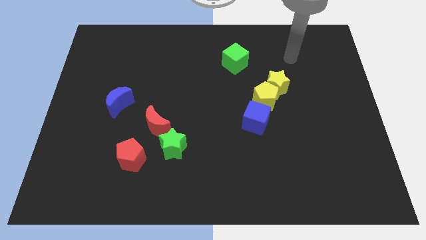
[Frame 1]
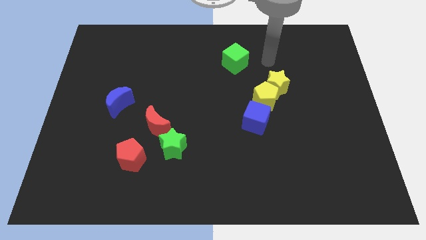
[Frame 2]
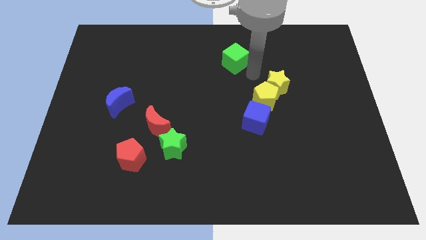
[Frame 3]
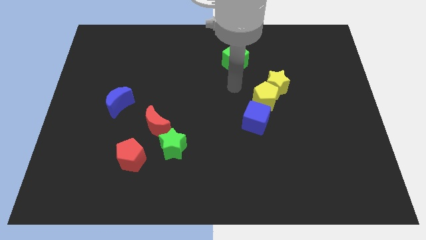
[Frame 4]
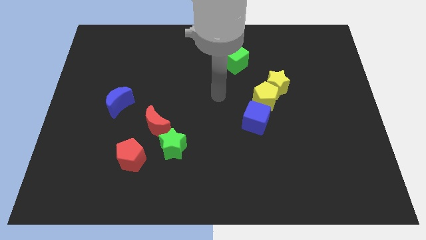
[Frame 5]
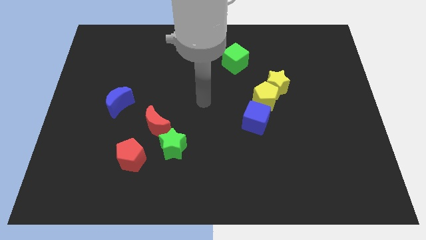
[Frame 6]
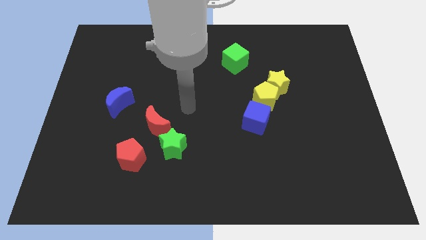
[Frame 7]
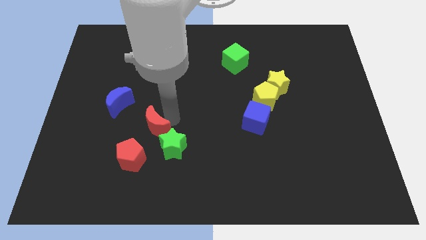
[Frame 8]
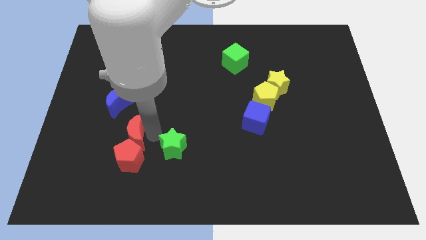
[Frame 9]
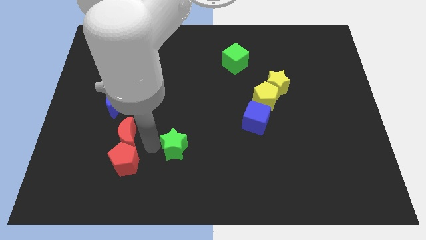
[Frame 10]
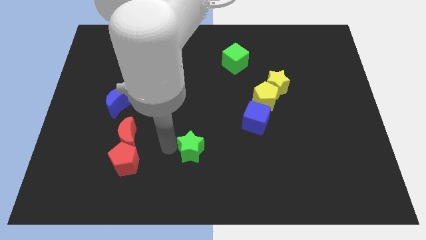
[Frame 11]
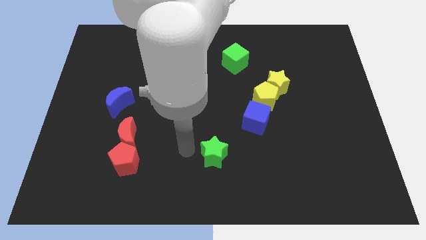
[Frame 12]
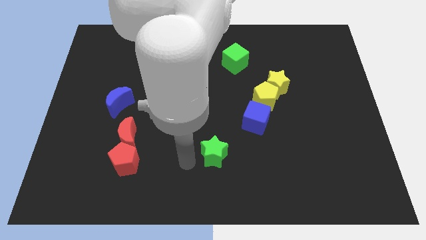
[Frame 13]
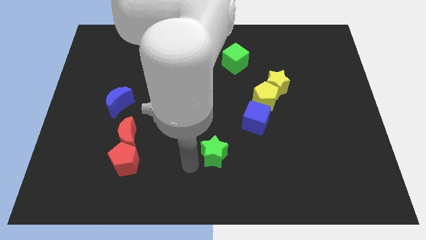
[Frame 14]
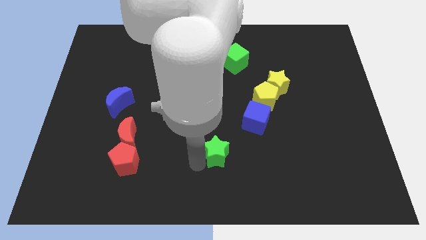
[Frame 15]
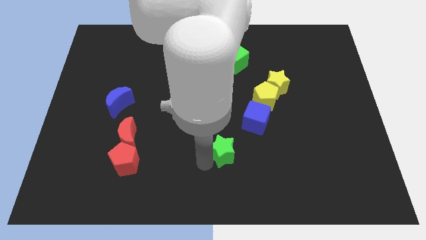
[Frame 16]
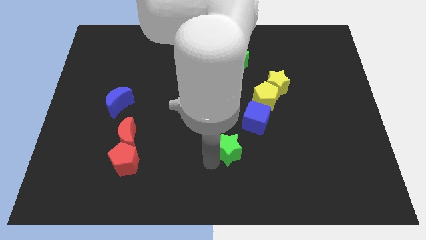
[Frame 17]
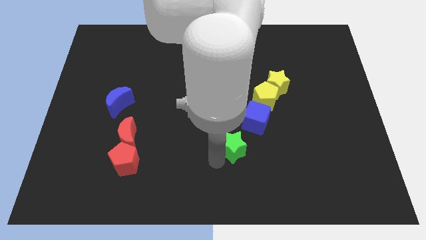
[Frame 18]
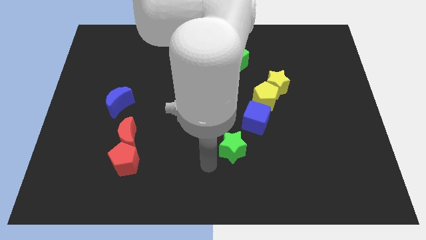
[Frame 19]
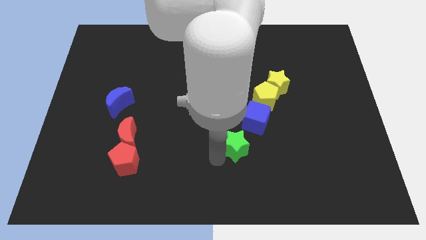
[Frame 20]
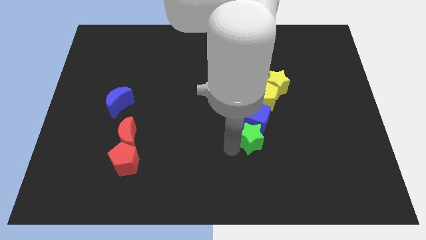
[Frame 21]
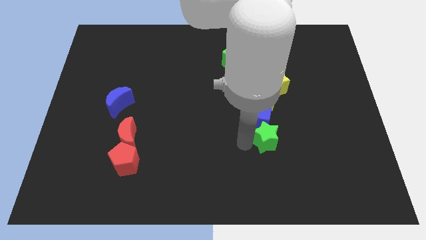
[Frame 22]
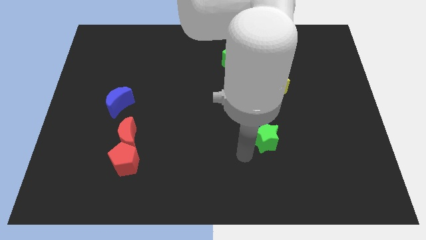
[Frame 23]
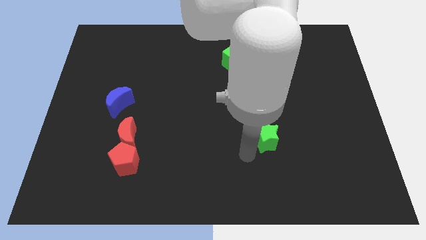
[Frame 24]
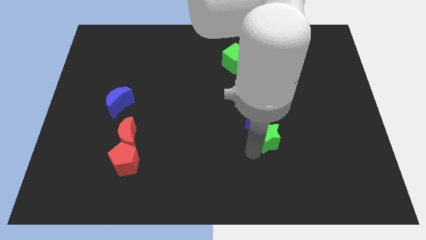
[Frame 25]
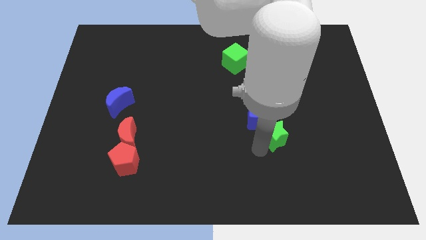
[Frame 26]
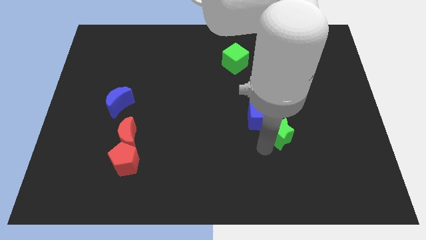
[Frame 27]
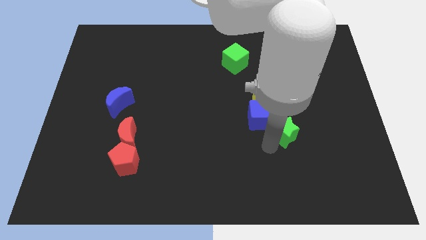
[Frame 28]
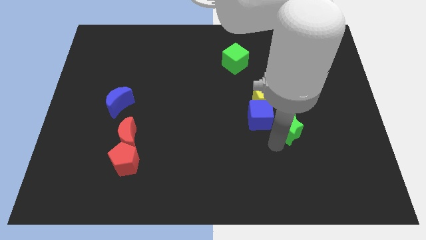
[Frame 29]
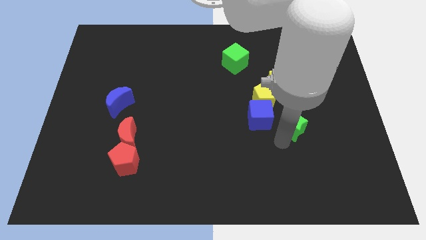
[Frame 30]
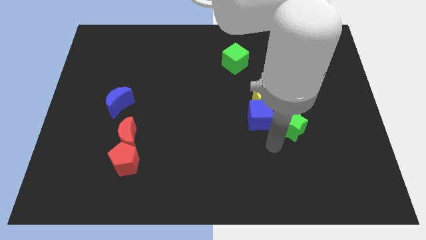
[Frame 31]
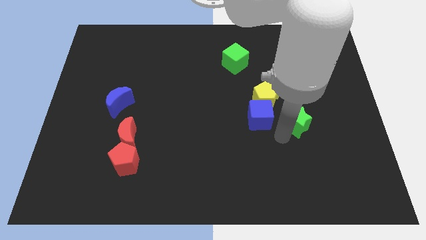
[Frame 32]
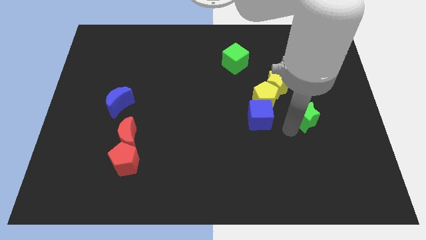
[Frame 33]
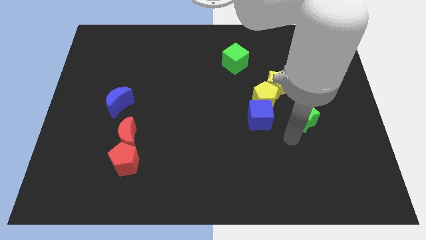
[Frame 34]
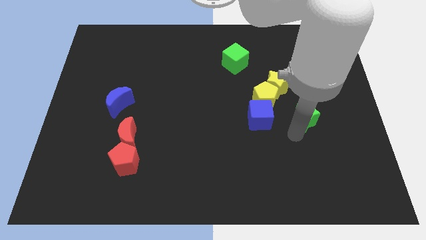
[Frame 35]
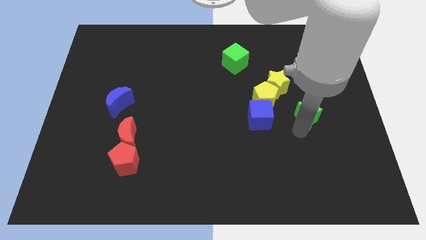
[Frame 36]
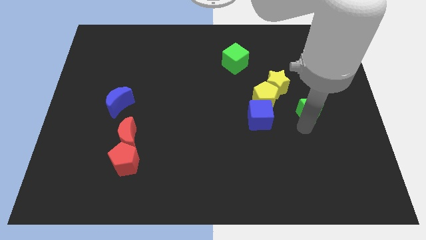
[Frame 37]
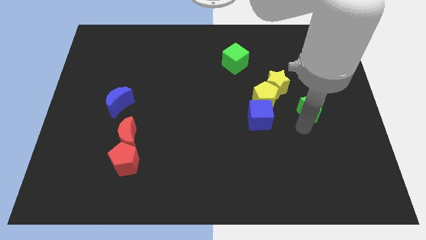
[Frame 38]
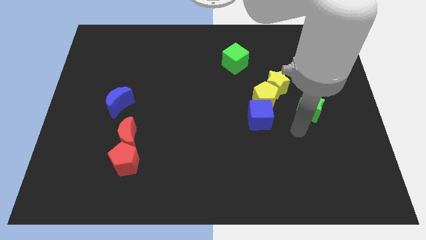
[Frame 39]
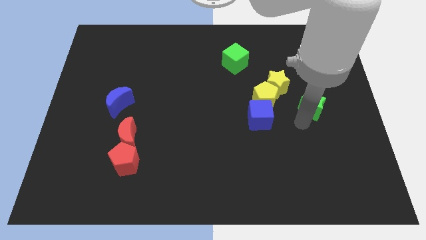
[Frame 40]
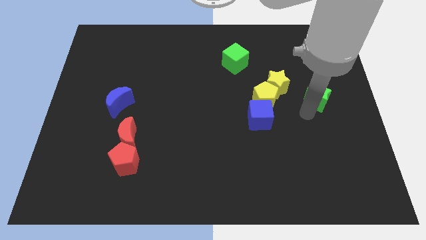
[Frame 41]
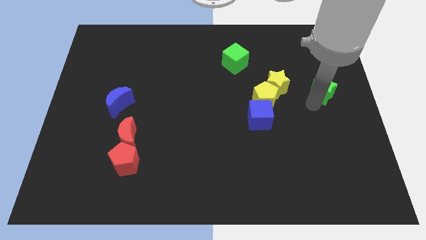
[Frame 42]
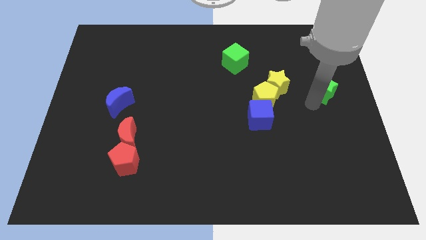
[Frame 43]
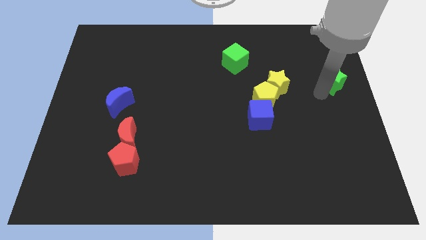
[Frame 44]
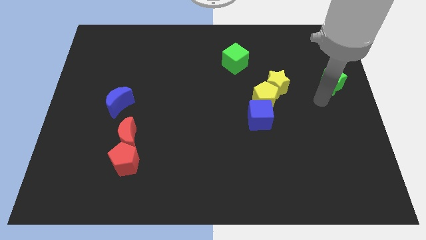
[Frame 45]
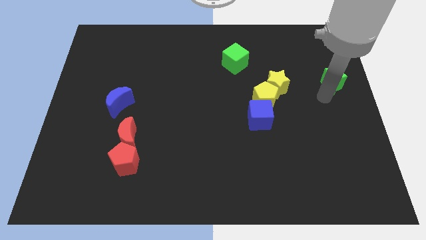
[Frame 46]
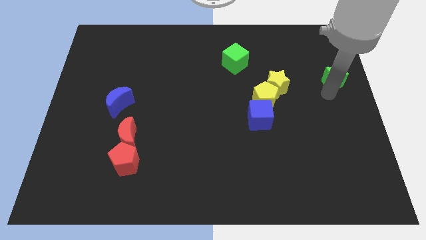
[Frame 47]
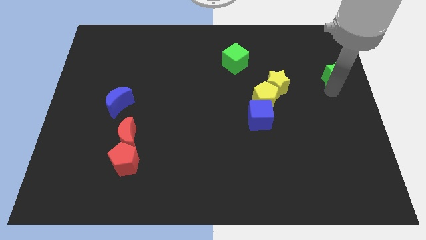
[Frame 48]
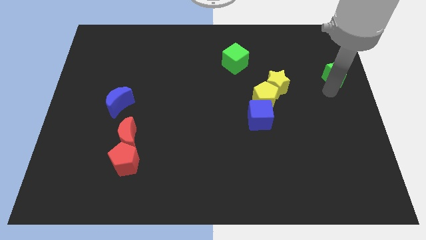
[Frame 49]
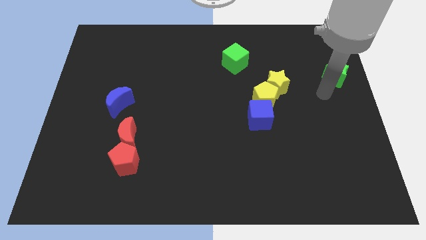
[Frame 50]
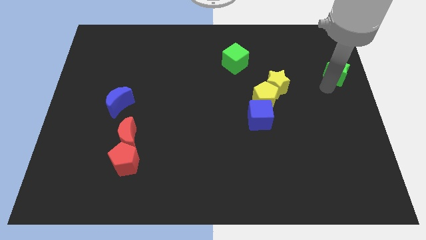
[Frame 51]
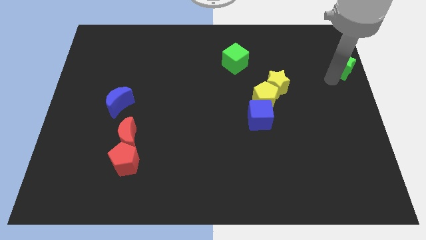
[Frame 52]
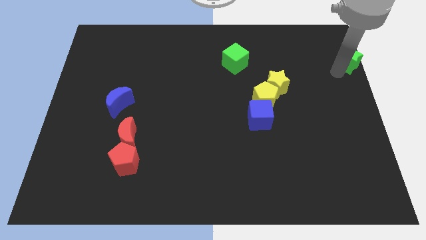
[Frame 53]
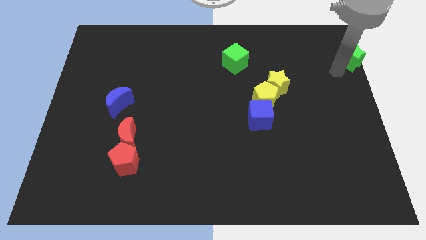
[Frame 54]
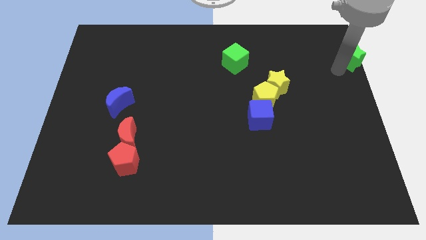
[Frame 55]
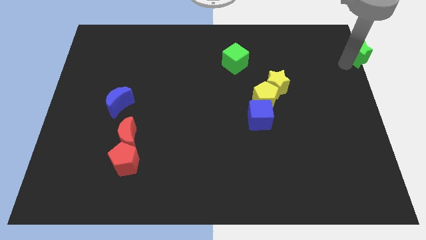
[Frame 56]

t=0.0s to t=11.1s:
push the green star to the upper right corner
